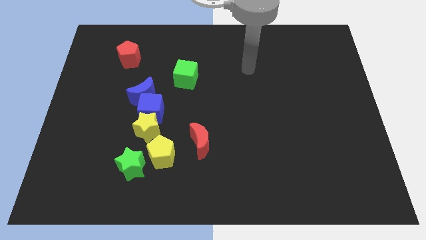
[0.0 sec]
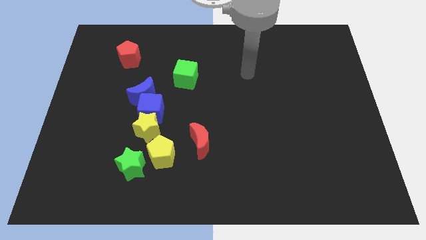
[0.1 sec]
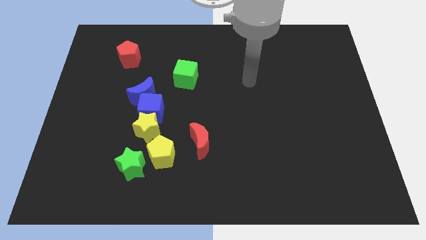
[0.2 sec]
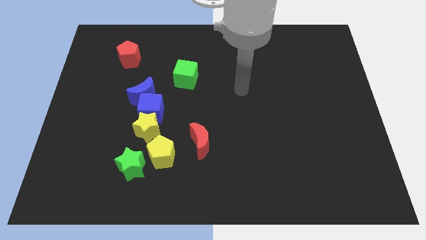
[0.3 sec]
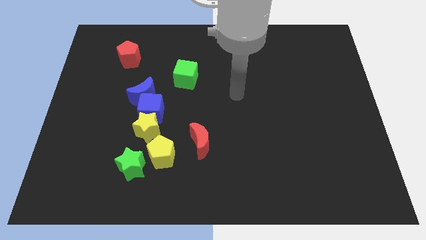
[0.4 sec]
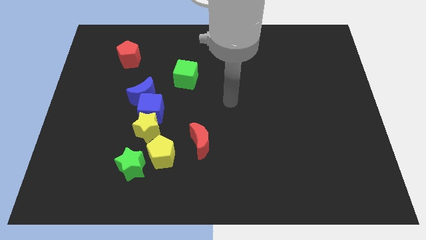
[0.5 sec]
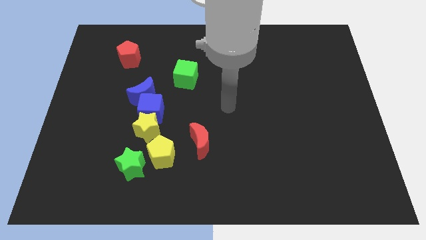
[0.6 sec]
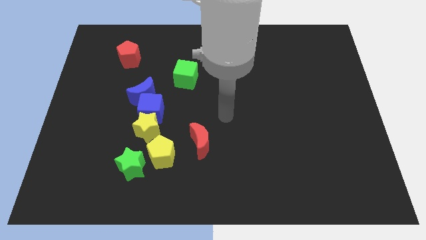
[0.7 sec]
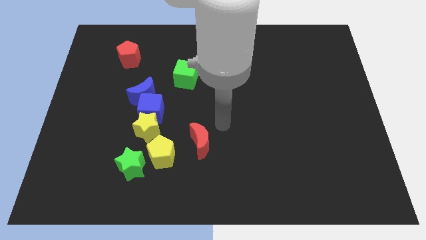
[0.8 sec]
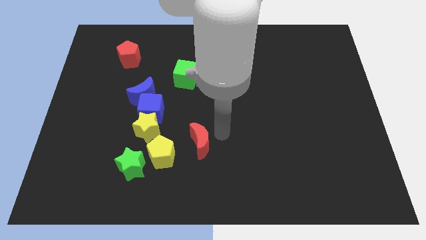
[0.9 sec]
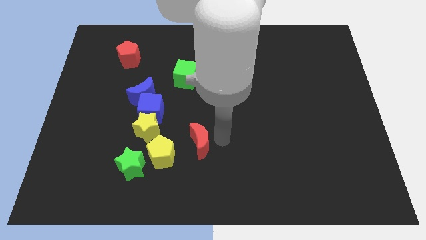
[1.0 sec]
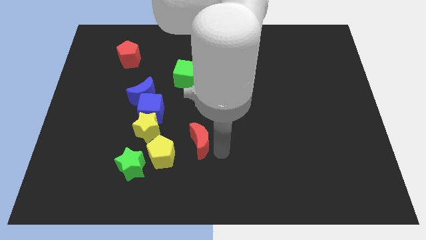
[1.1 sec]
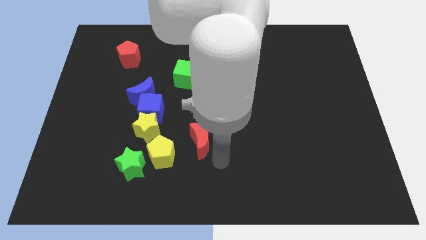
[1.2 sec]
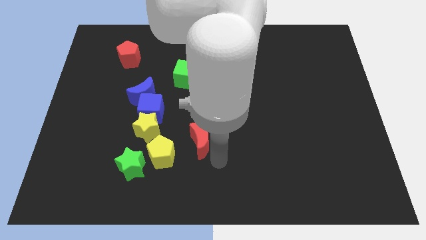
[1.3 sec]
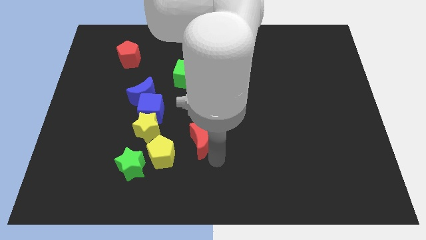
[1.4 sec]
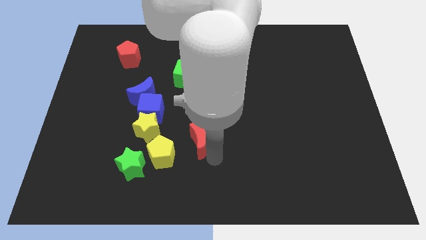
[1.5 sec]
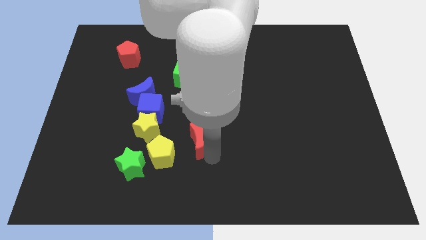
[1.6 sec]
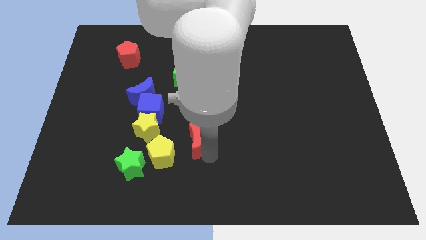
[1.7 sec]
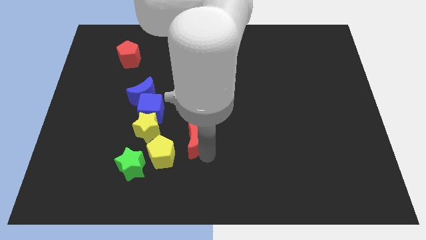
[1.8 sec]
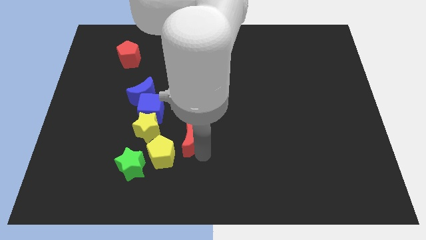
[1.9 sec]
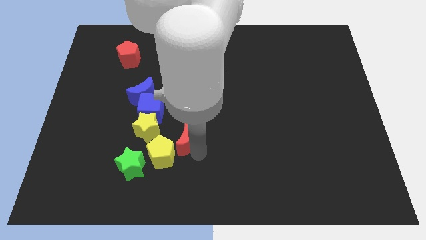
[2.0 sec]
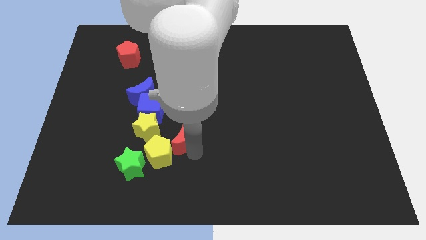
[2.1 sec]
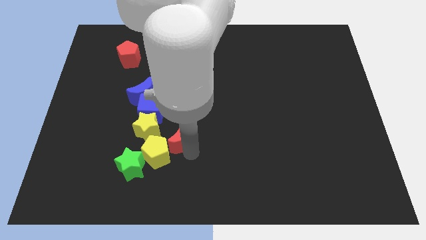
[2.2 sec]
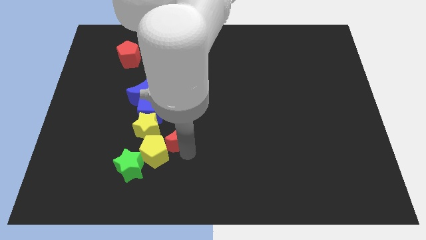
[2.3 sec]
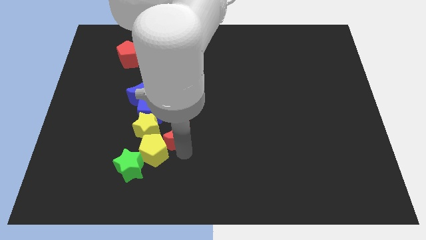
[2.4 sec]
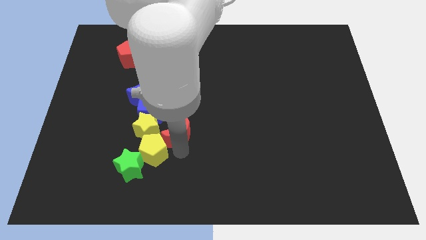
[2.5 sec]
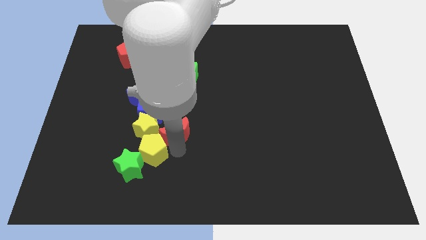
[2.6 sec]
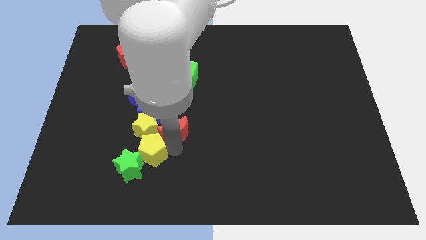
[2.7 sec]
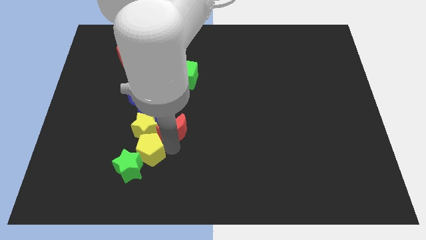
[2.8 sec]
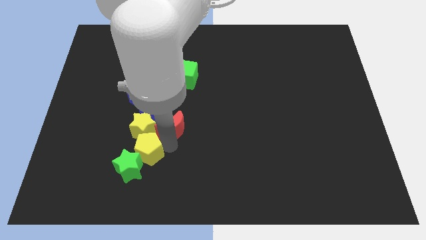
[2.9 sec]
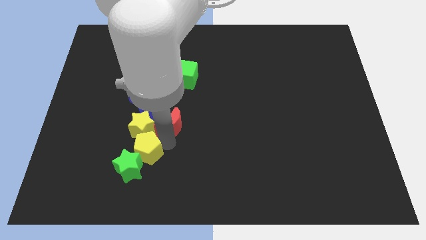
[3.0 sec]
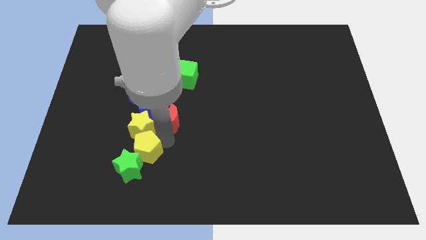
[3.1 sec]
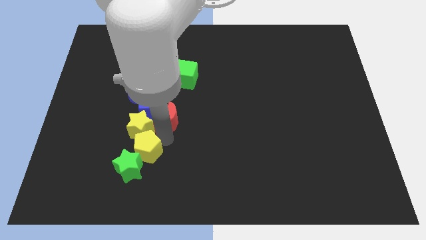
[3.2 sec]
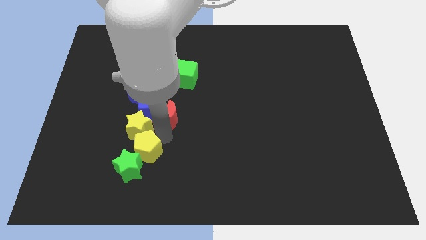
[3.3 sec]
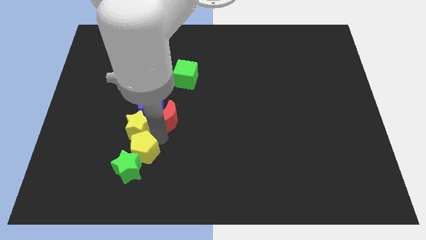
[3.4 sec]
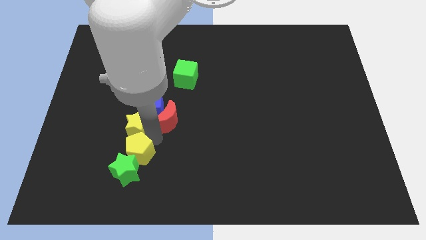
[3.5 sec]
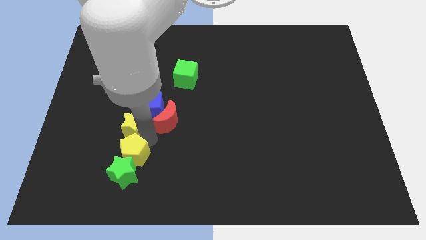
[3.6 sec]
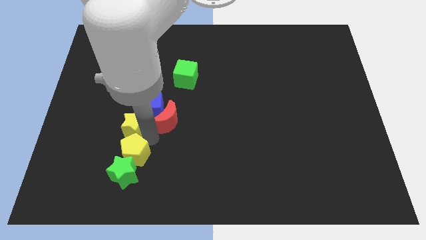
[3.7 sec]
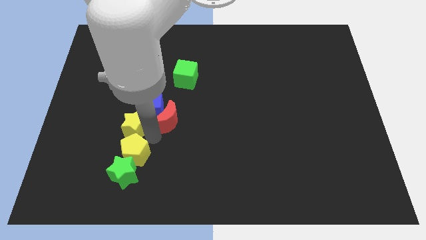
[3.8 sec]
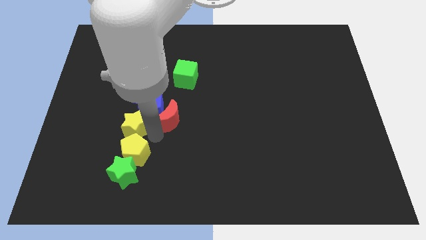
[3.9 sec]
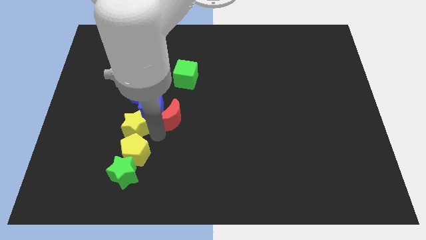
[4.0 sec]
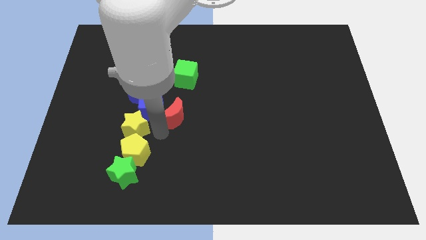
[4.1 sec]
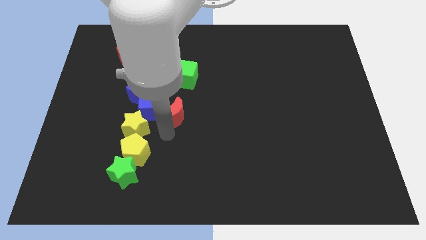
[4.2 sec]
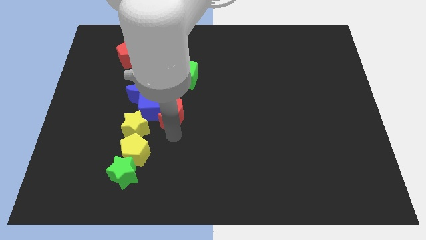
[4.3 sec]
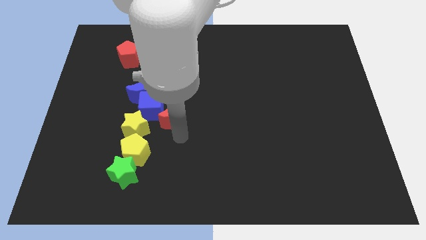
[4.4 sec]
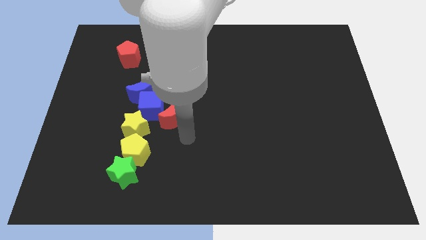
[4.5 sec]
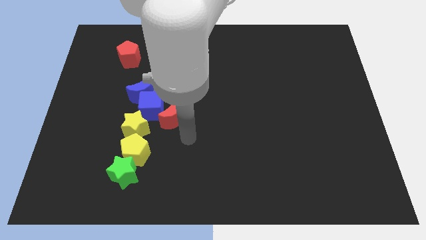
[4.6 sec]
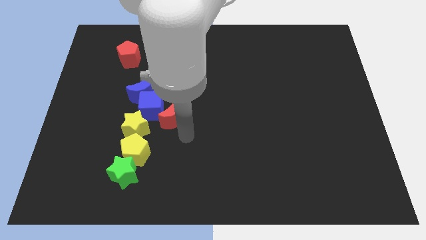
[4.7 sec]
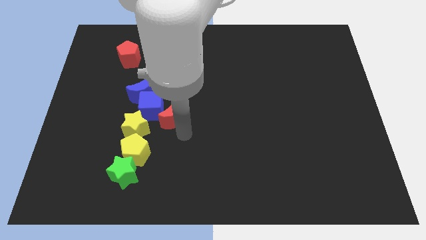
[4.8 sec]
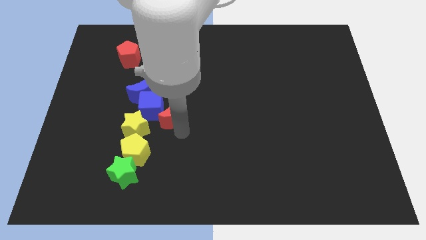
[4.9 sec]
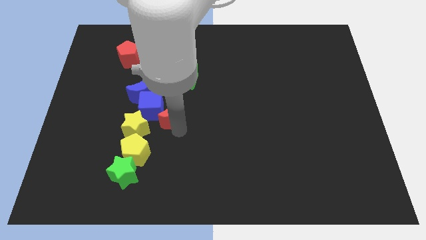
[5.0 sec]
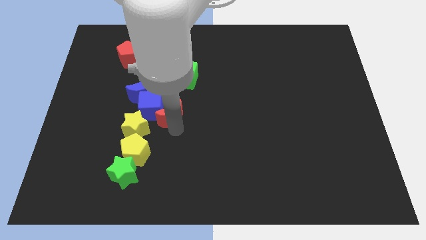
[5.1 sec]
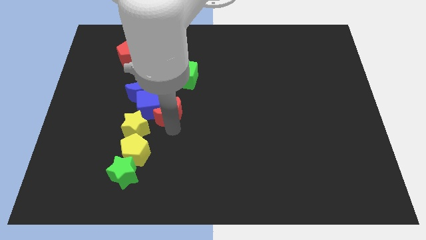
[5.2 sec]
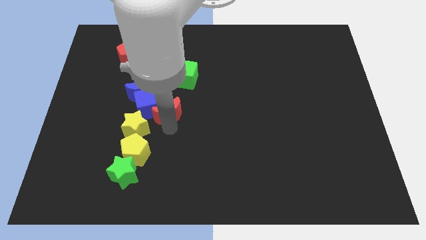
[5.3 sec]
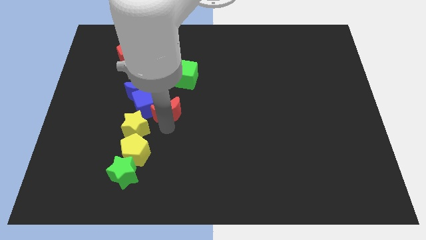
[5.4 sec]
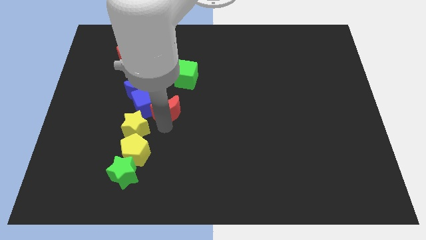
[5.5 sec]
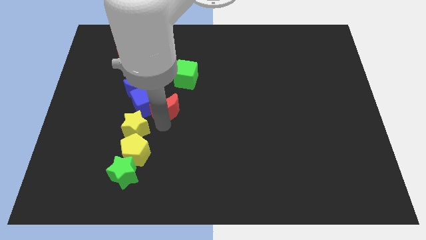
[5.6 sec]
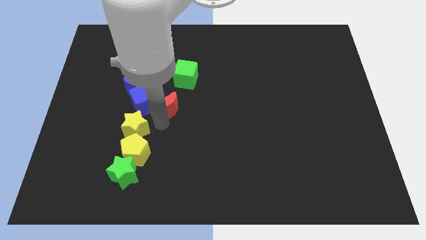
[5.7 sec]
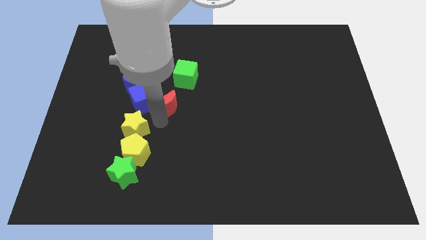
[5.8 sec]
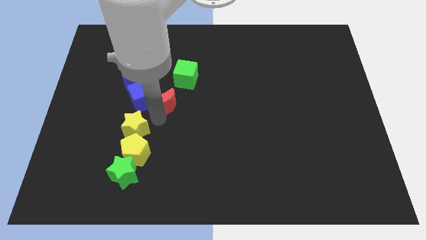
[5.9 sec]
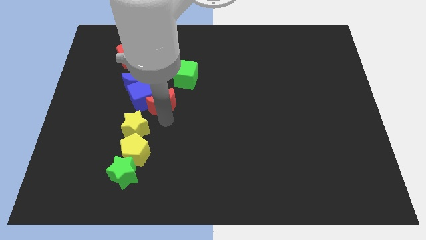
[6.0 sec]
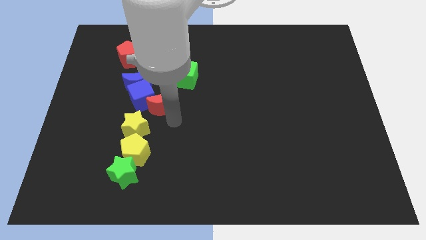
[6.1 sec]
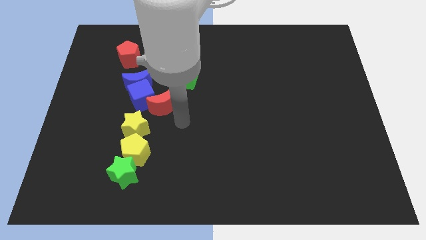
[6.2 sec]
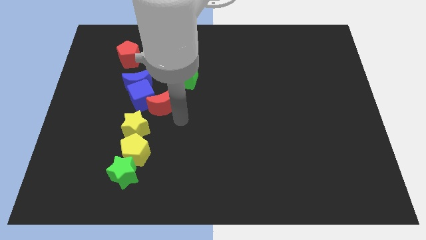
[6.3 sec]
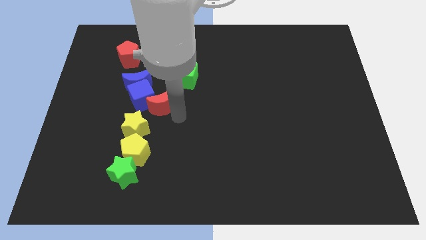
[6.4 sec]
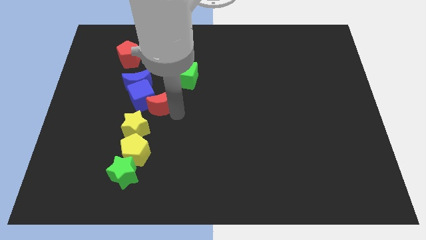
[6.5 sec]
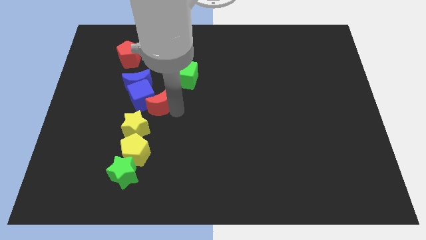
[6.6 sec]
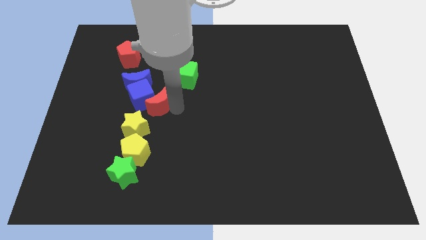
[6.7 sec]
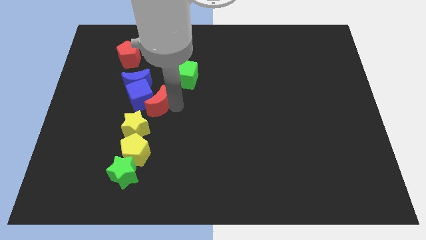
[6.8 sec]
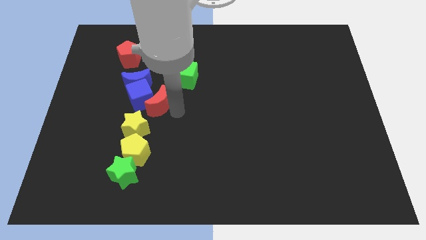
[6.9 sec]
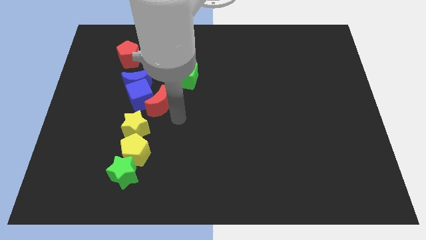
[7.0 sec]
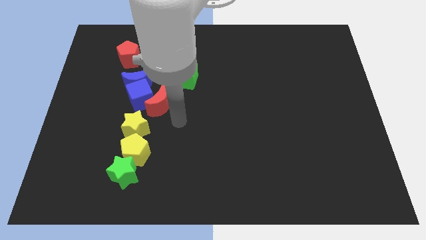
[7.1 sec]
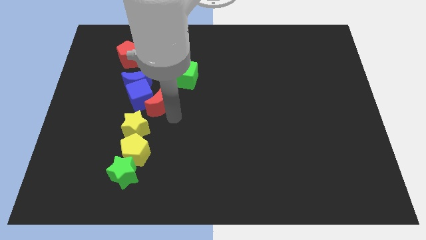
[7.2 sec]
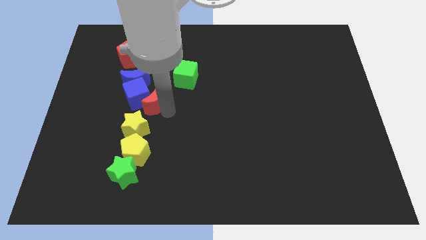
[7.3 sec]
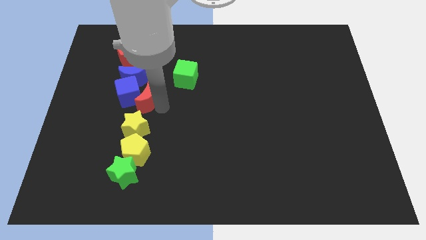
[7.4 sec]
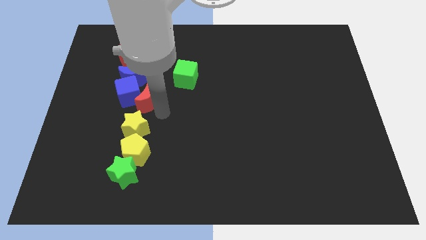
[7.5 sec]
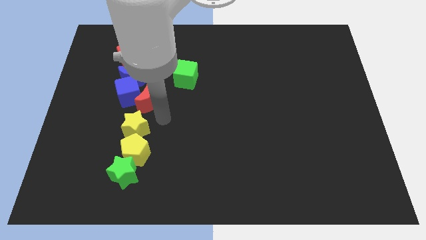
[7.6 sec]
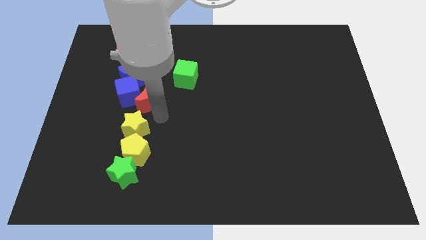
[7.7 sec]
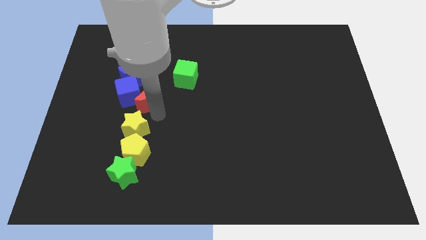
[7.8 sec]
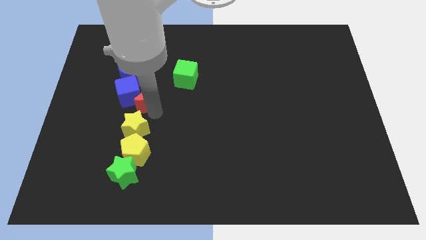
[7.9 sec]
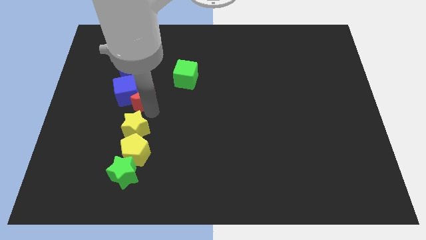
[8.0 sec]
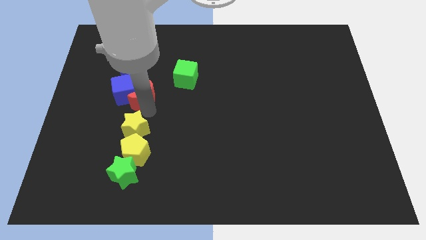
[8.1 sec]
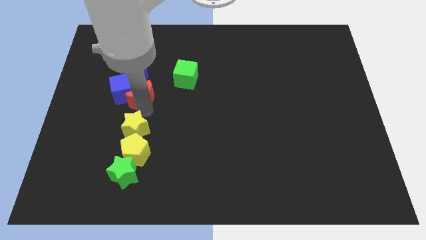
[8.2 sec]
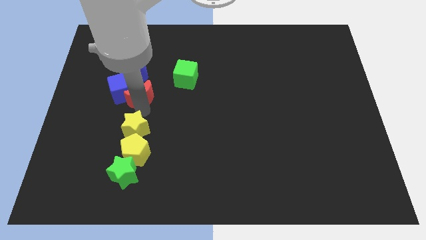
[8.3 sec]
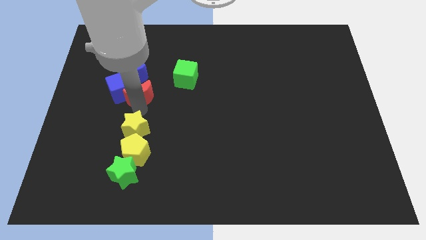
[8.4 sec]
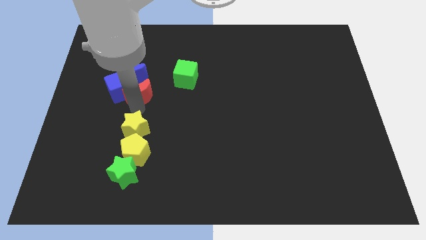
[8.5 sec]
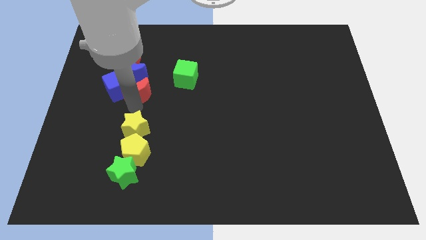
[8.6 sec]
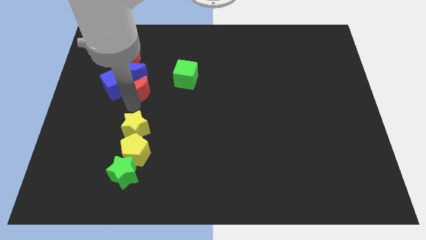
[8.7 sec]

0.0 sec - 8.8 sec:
push the red moon to the blue moon
